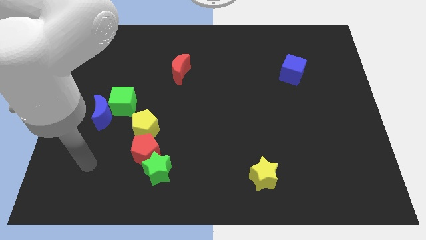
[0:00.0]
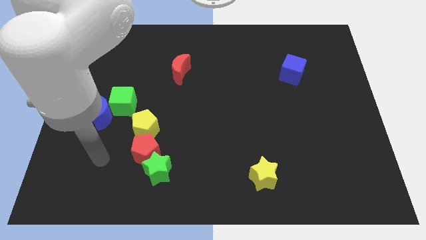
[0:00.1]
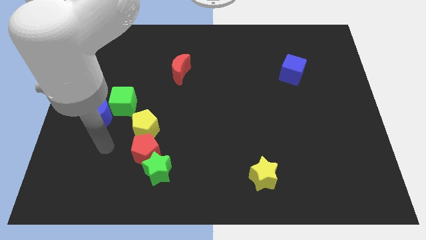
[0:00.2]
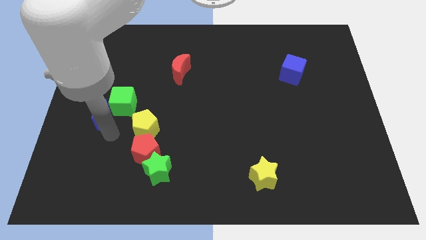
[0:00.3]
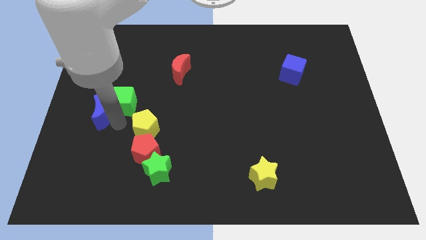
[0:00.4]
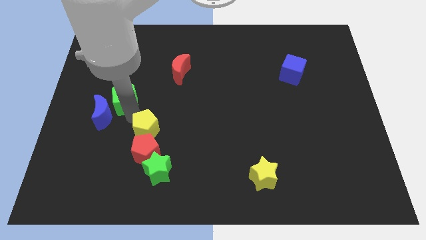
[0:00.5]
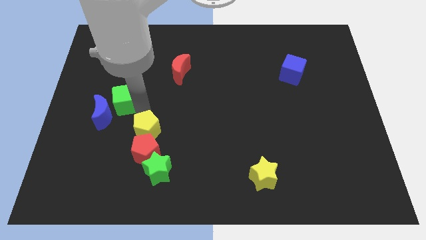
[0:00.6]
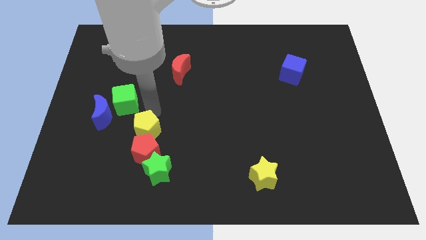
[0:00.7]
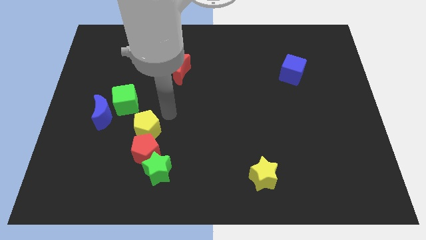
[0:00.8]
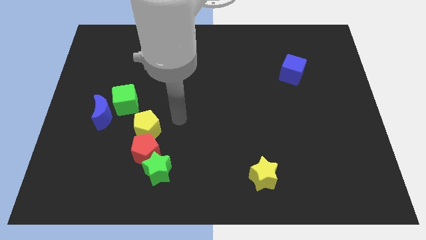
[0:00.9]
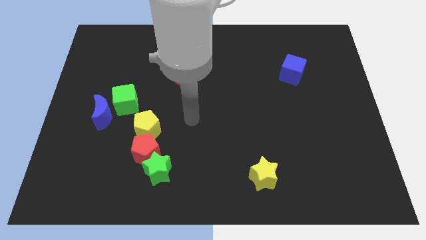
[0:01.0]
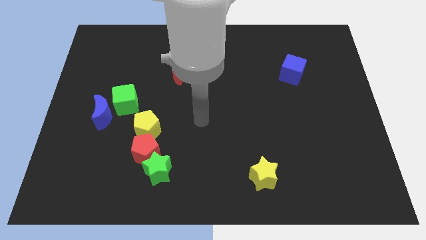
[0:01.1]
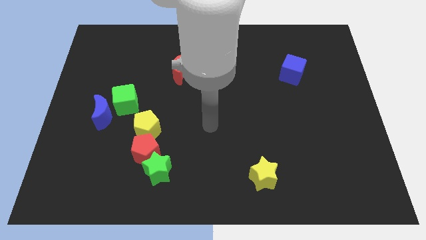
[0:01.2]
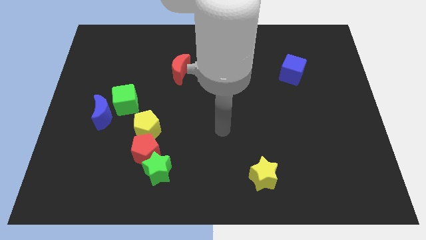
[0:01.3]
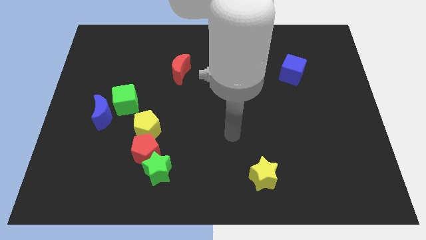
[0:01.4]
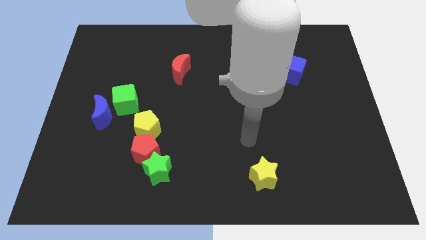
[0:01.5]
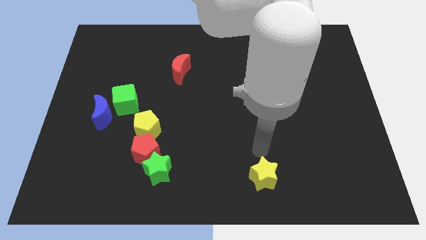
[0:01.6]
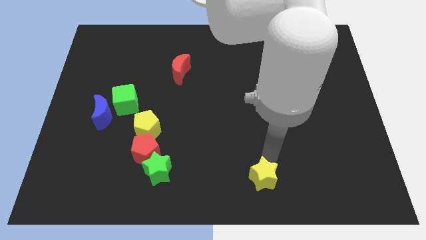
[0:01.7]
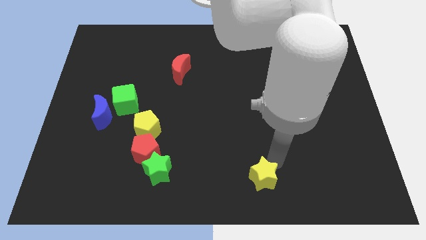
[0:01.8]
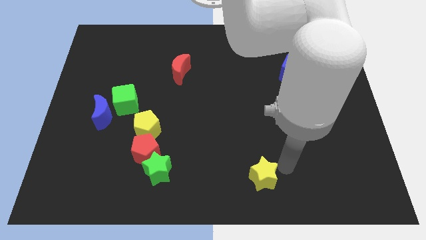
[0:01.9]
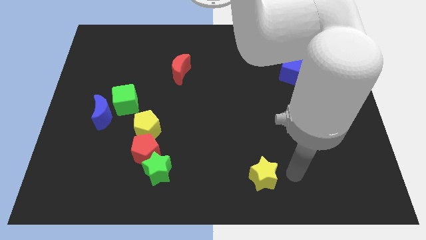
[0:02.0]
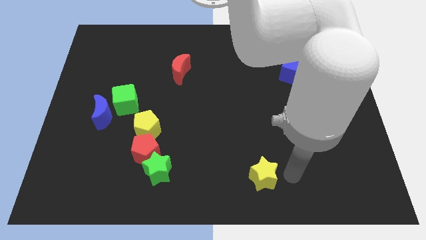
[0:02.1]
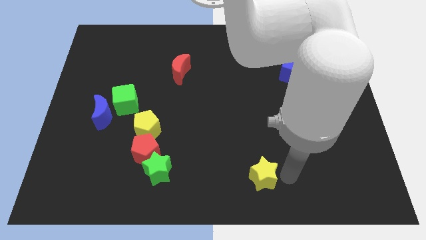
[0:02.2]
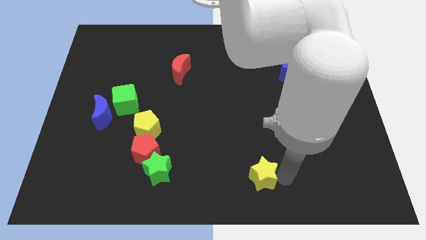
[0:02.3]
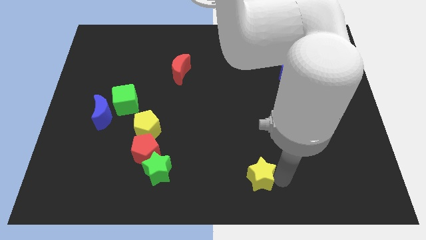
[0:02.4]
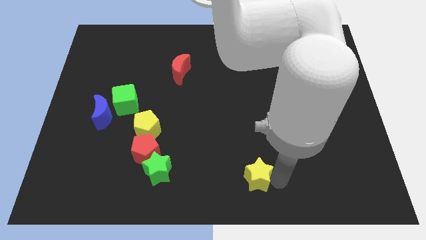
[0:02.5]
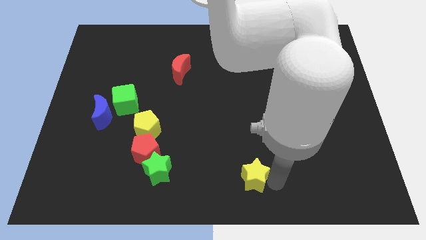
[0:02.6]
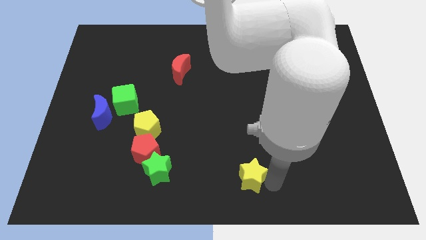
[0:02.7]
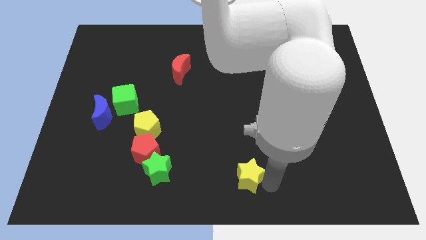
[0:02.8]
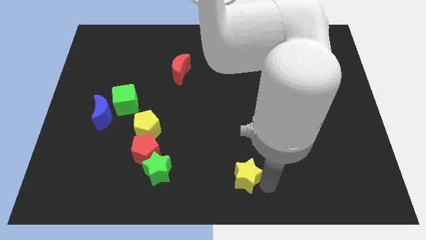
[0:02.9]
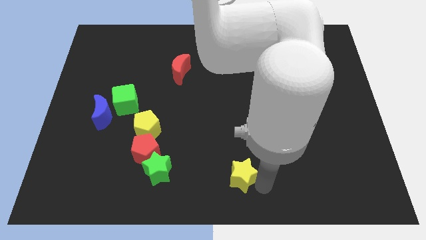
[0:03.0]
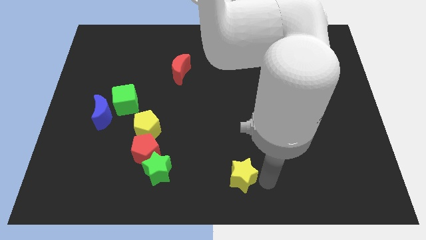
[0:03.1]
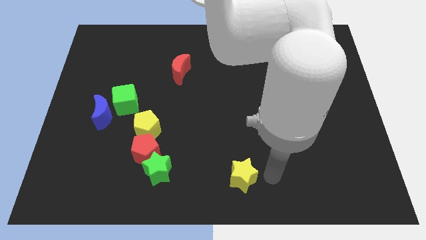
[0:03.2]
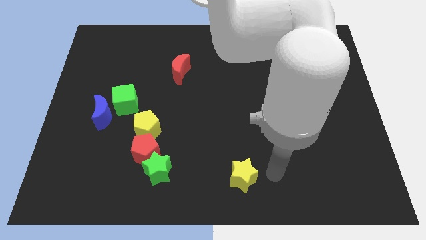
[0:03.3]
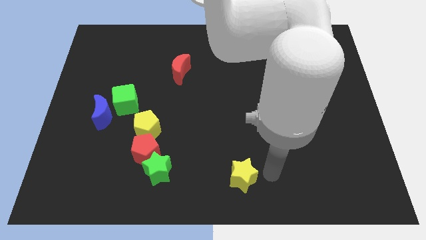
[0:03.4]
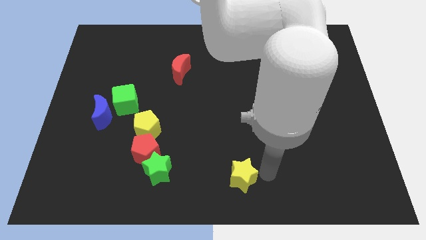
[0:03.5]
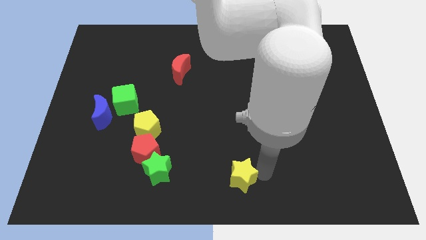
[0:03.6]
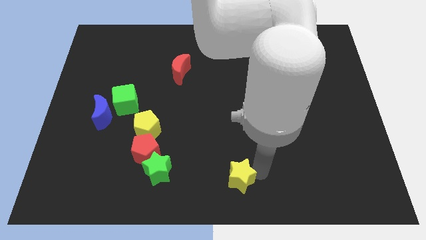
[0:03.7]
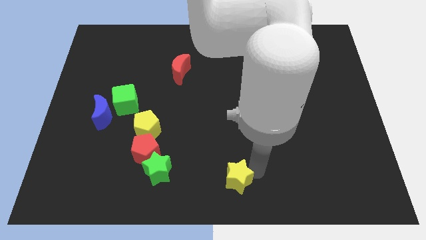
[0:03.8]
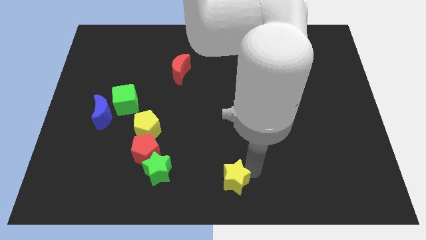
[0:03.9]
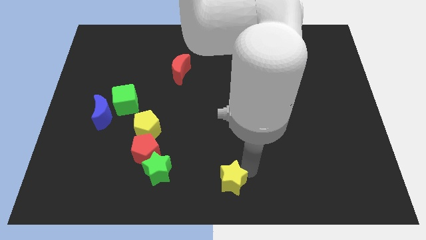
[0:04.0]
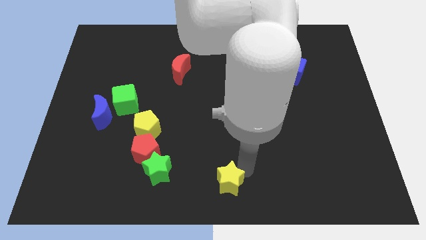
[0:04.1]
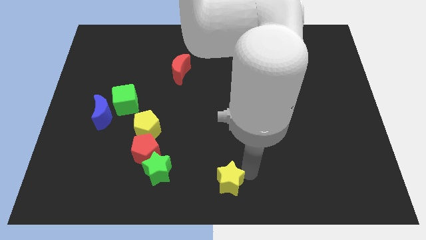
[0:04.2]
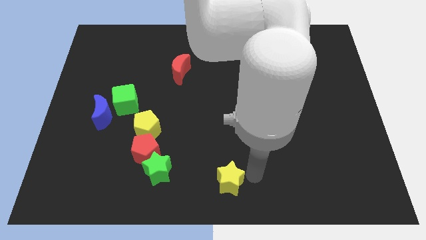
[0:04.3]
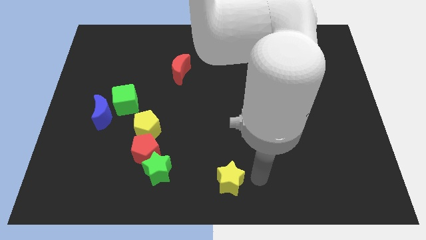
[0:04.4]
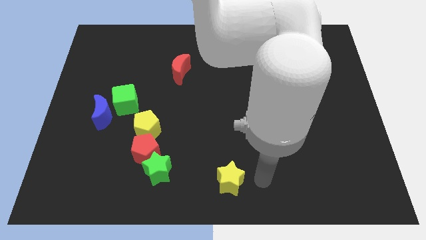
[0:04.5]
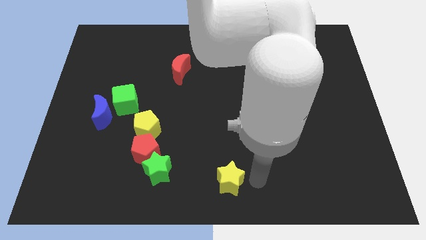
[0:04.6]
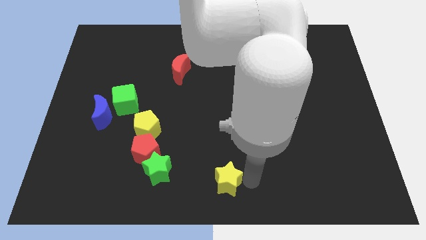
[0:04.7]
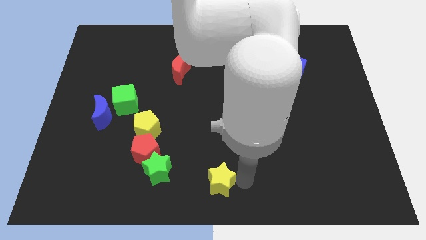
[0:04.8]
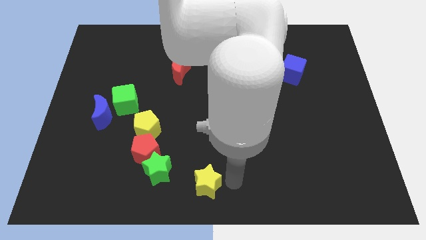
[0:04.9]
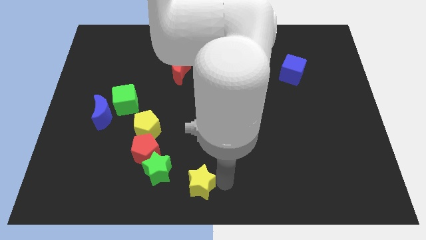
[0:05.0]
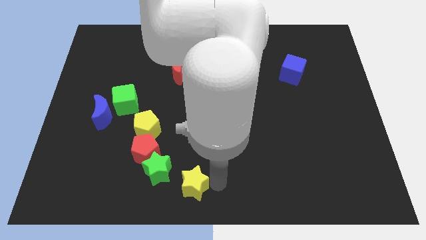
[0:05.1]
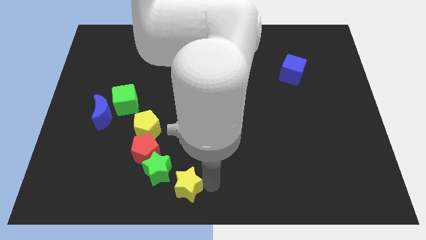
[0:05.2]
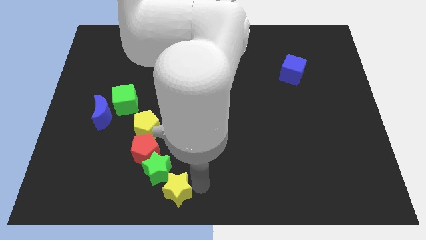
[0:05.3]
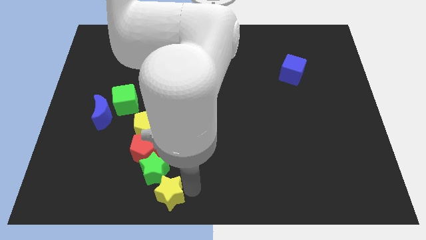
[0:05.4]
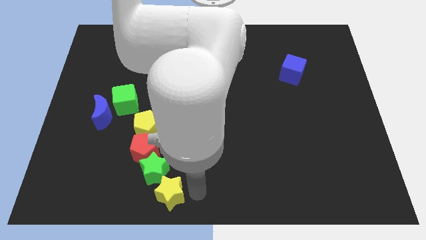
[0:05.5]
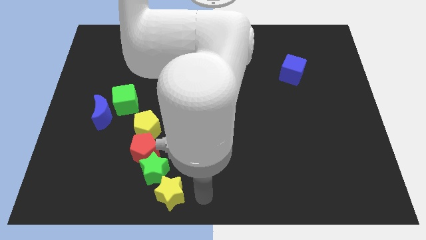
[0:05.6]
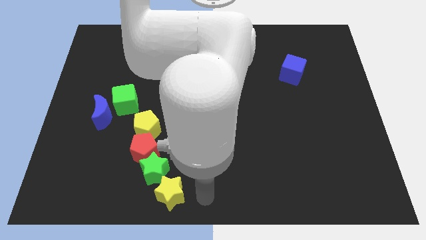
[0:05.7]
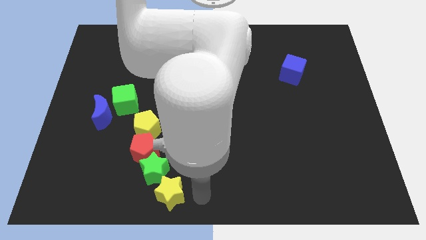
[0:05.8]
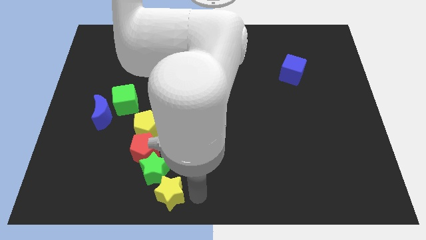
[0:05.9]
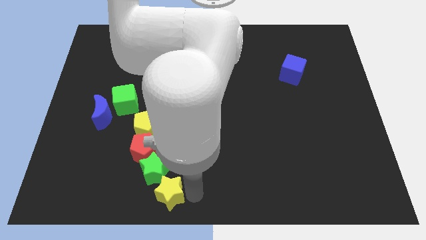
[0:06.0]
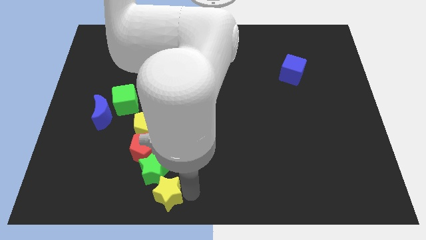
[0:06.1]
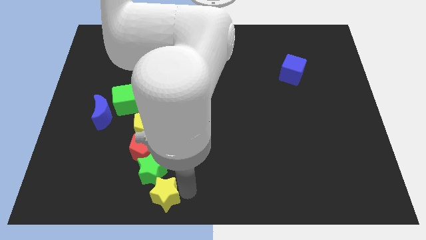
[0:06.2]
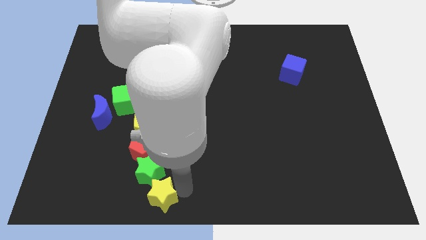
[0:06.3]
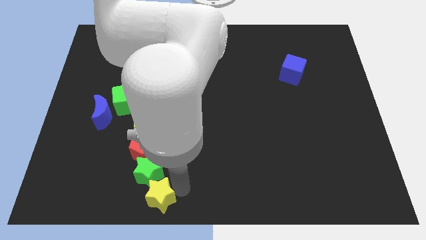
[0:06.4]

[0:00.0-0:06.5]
push the yellow star left

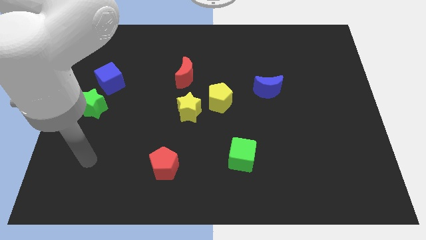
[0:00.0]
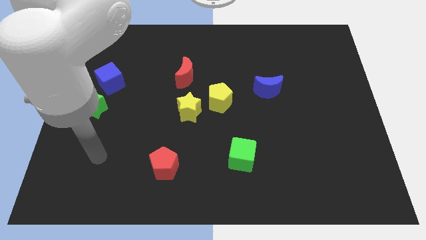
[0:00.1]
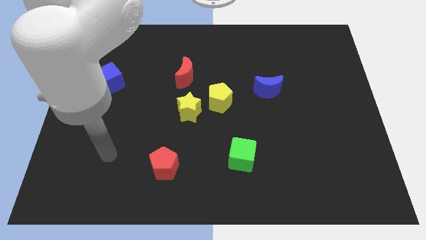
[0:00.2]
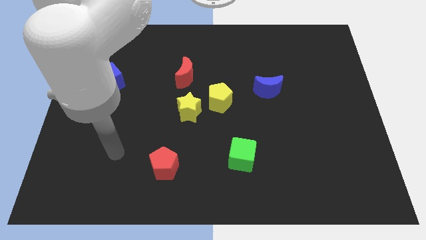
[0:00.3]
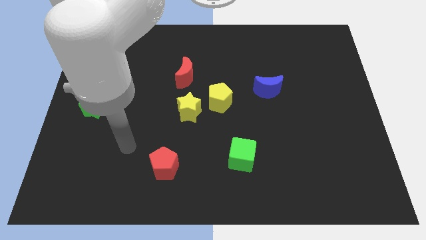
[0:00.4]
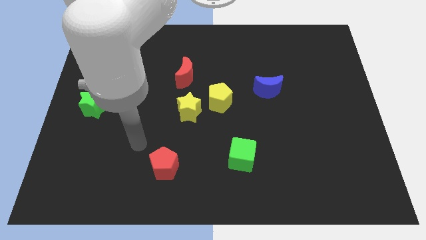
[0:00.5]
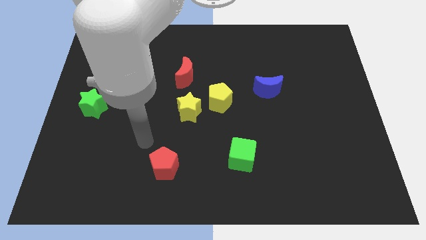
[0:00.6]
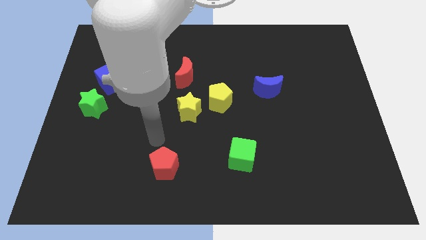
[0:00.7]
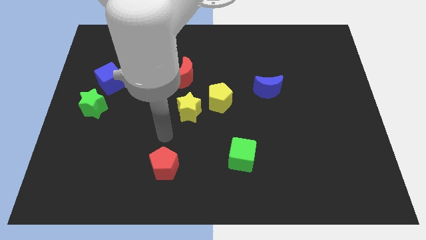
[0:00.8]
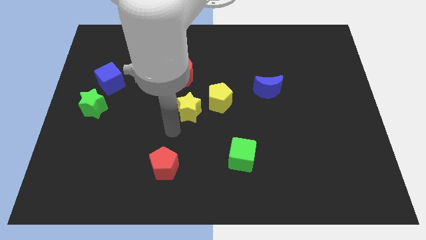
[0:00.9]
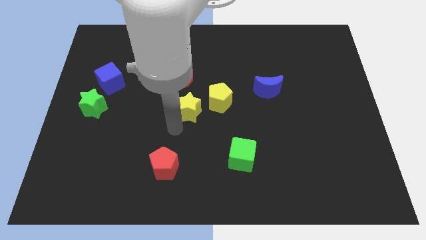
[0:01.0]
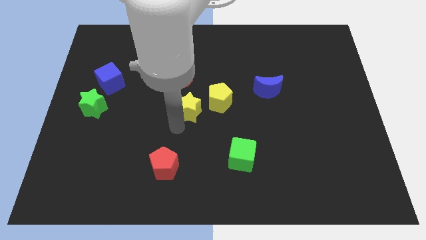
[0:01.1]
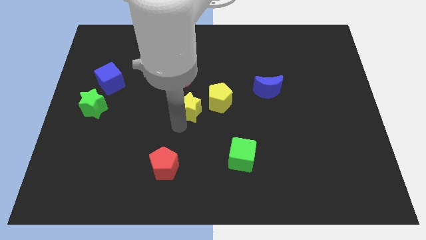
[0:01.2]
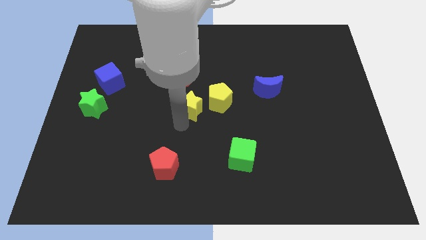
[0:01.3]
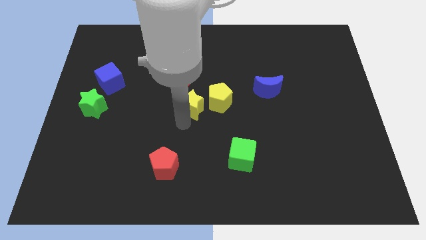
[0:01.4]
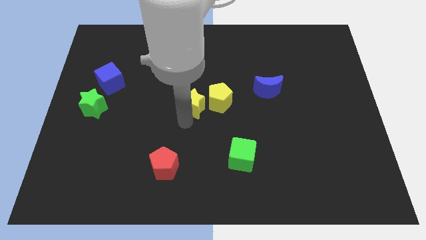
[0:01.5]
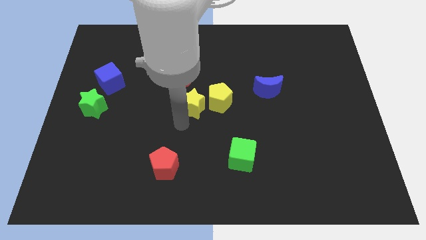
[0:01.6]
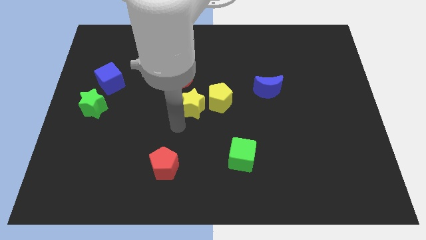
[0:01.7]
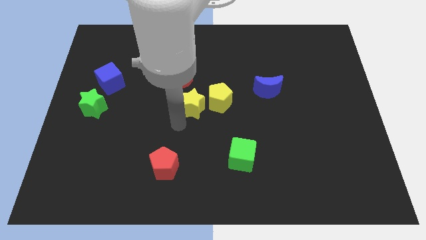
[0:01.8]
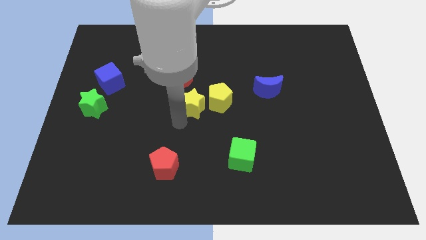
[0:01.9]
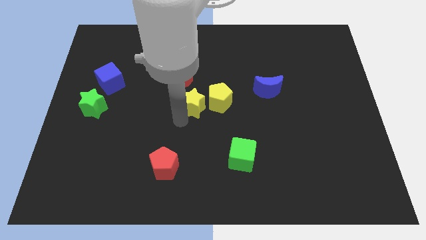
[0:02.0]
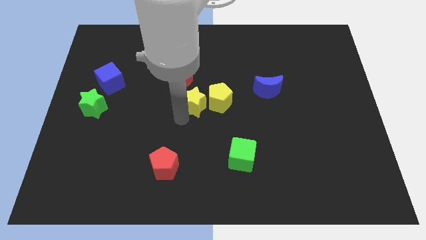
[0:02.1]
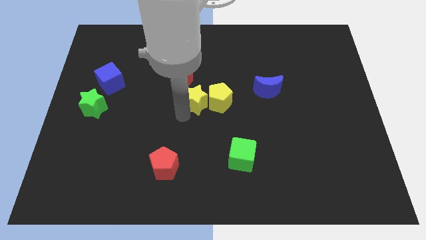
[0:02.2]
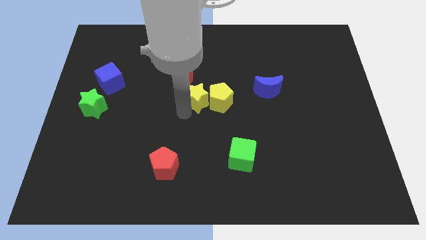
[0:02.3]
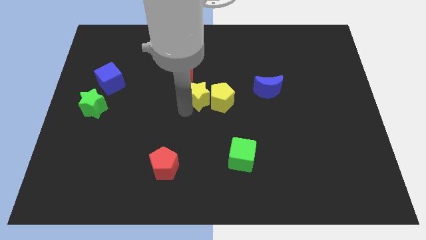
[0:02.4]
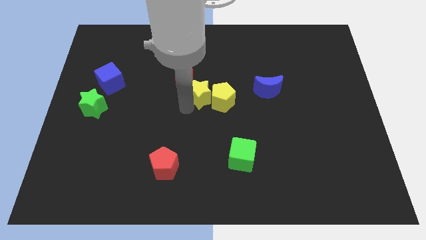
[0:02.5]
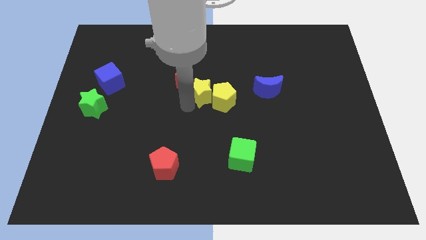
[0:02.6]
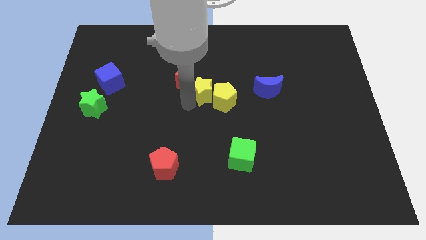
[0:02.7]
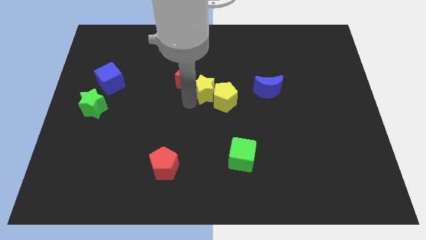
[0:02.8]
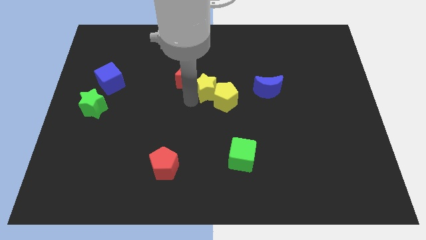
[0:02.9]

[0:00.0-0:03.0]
slide the yellow star a little bit upwards and to the right diagonally
